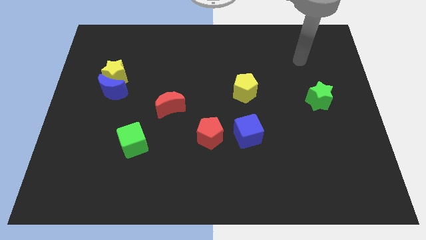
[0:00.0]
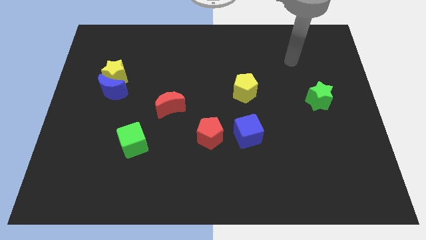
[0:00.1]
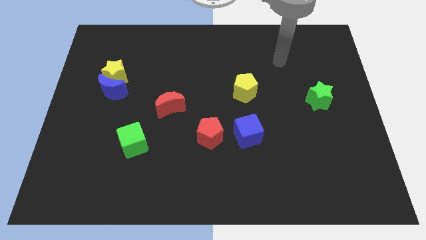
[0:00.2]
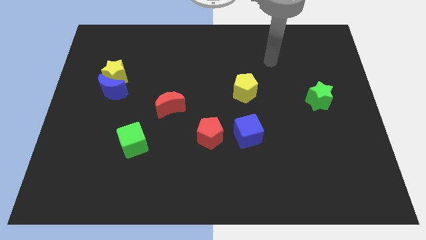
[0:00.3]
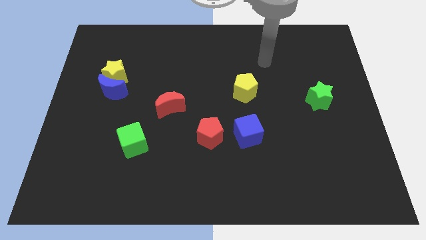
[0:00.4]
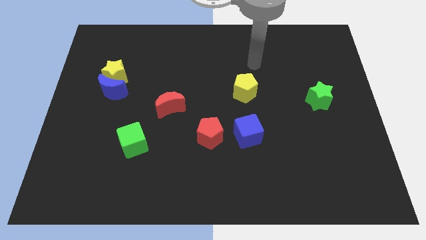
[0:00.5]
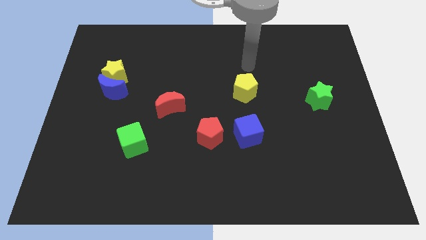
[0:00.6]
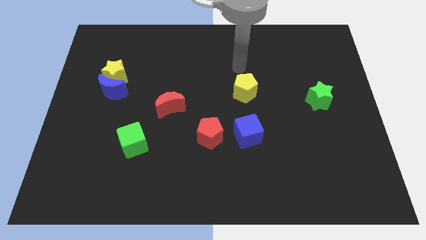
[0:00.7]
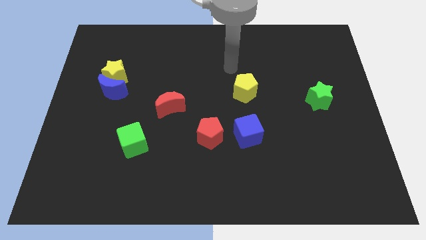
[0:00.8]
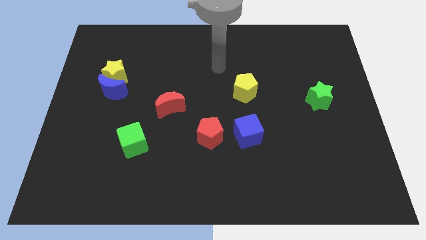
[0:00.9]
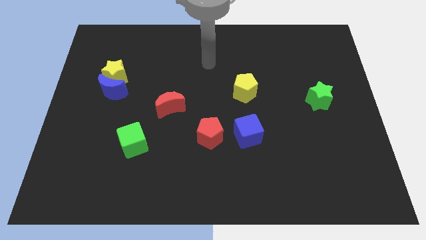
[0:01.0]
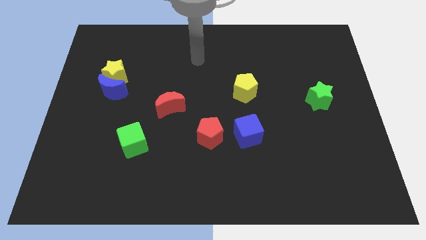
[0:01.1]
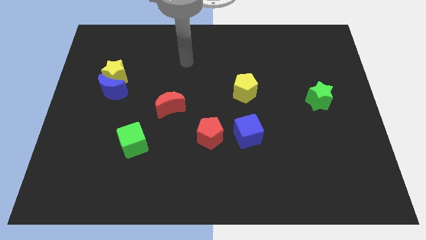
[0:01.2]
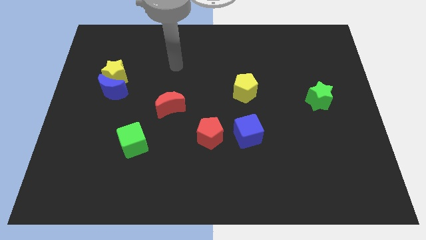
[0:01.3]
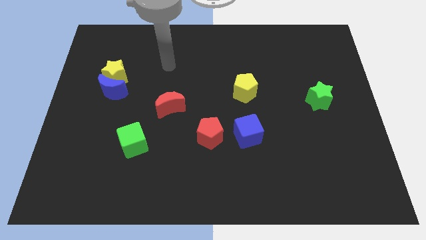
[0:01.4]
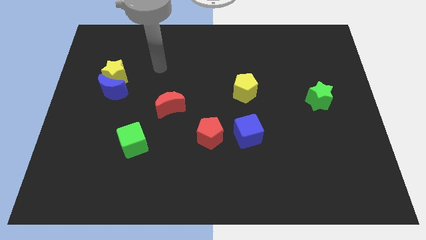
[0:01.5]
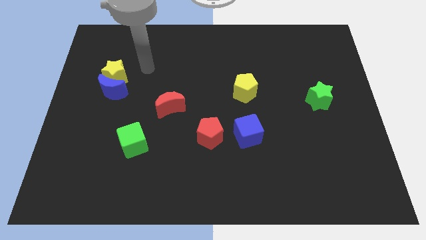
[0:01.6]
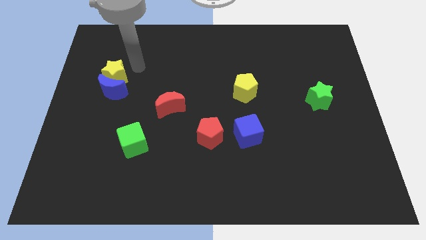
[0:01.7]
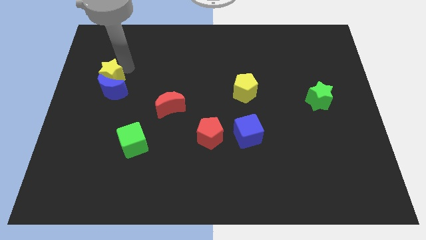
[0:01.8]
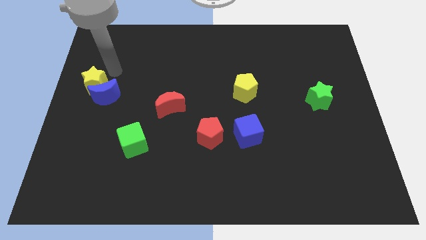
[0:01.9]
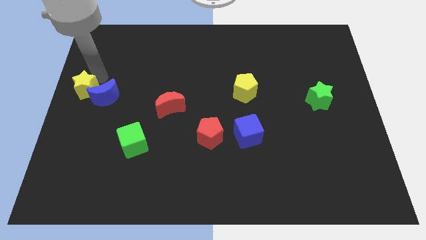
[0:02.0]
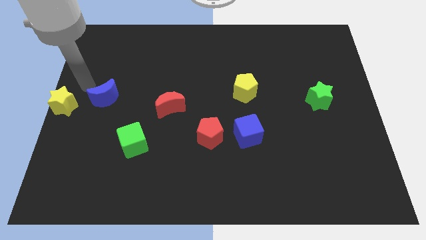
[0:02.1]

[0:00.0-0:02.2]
pull the blue moon apart from the yellow star

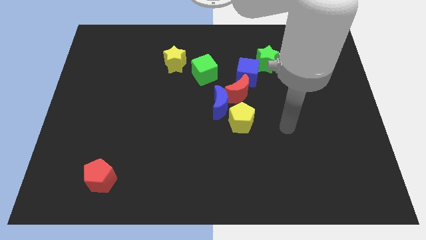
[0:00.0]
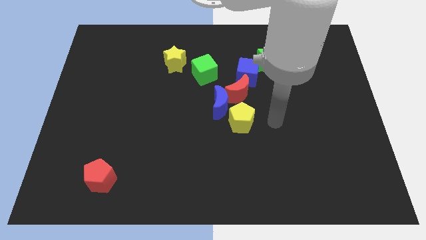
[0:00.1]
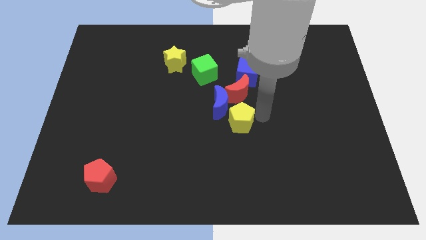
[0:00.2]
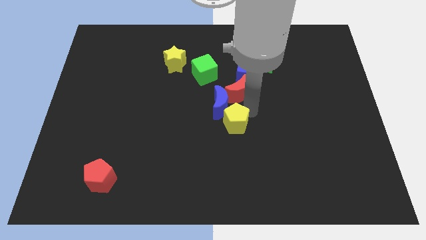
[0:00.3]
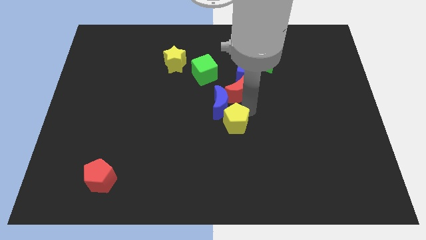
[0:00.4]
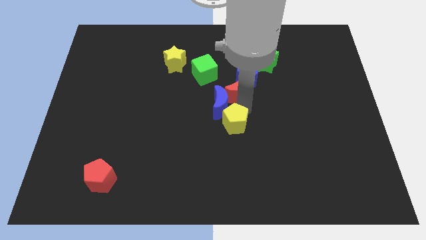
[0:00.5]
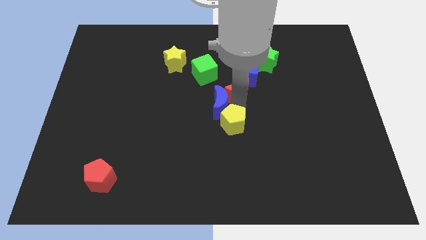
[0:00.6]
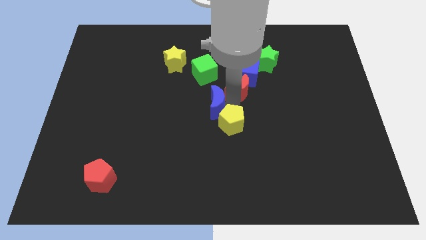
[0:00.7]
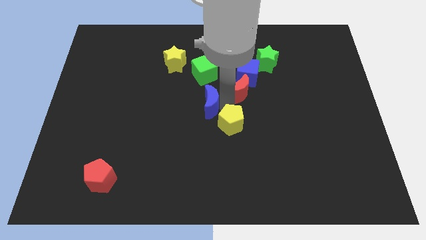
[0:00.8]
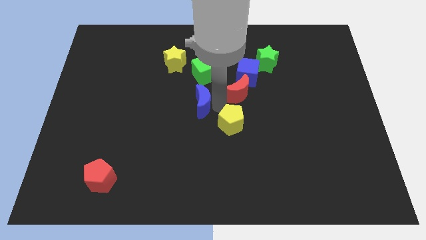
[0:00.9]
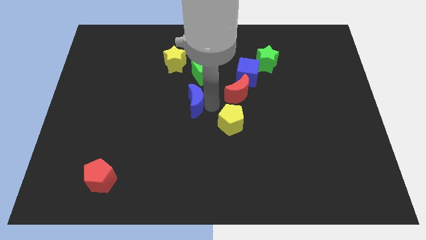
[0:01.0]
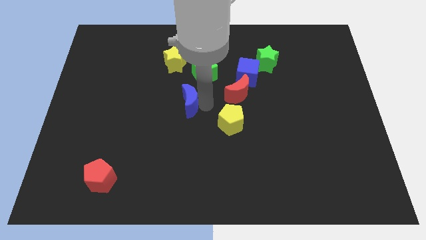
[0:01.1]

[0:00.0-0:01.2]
move the blue moon away from the red moon and yellow pentagon

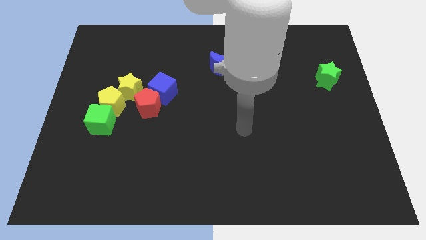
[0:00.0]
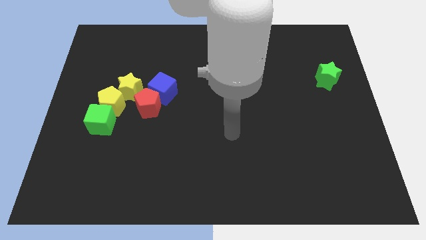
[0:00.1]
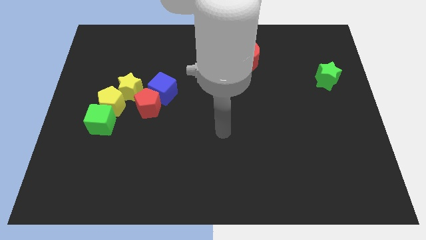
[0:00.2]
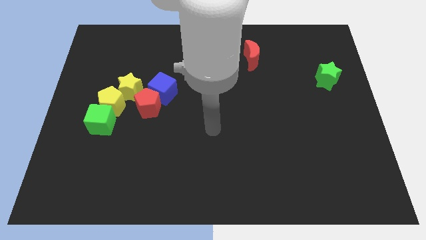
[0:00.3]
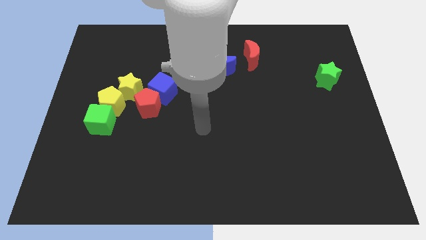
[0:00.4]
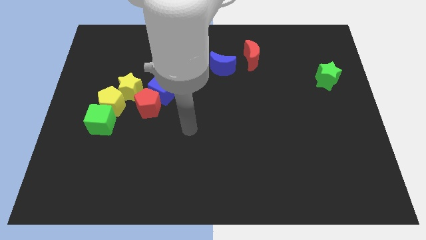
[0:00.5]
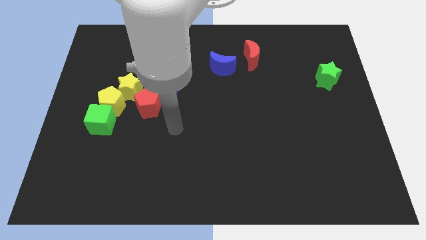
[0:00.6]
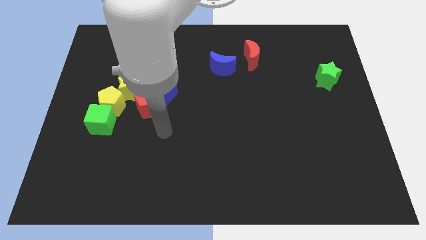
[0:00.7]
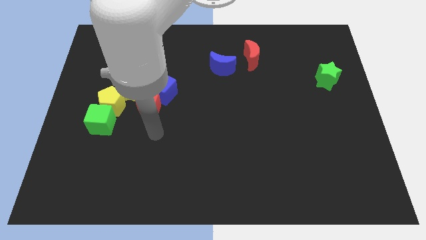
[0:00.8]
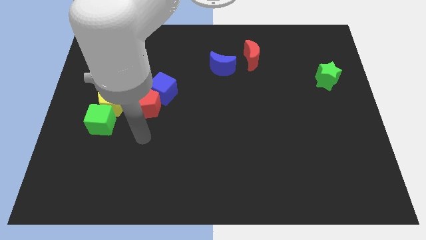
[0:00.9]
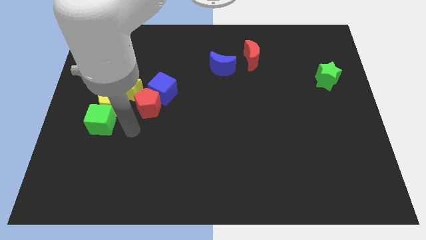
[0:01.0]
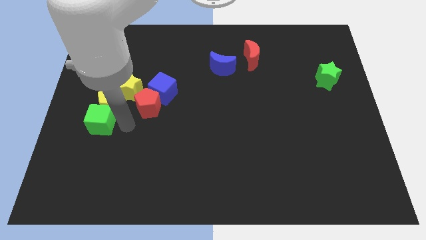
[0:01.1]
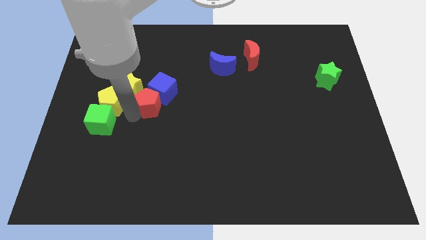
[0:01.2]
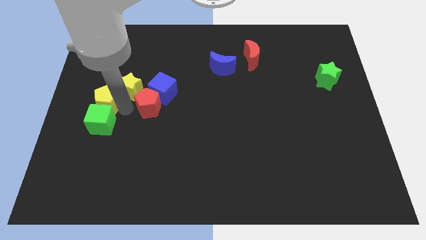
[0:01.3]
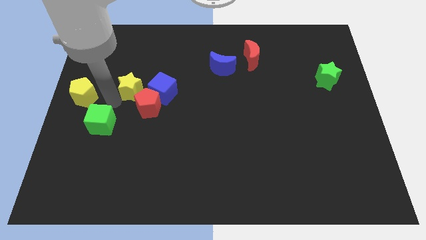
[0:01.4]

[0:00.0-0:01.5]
separate the green cube from the yellow pentagon

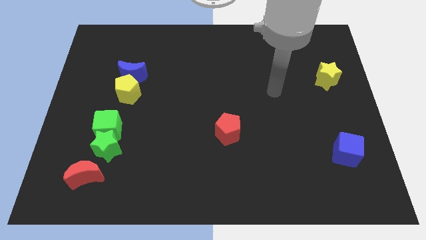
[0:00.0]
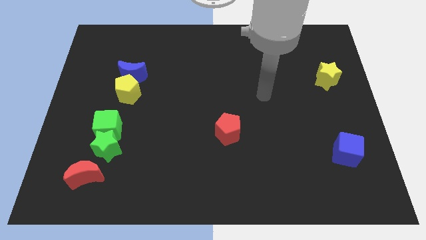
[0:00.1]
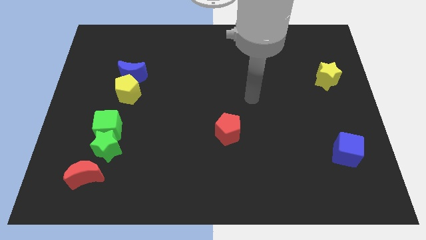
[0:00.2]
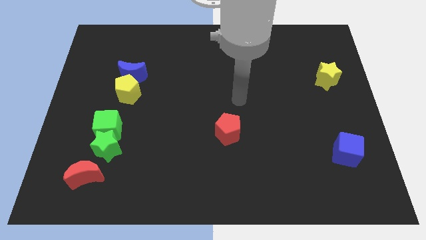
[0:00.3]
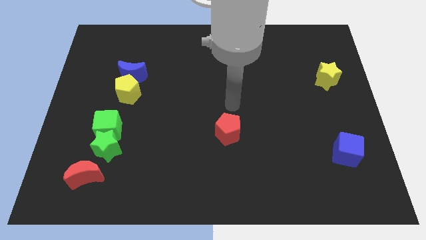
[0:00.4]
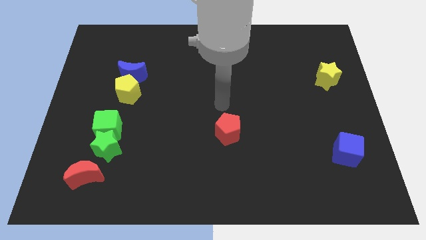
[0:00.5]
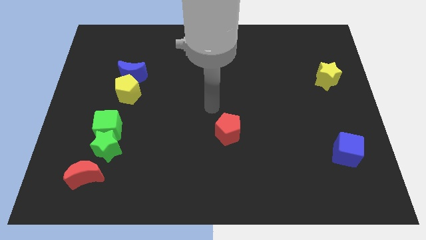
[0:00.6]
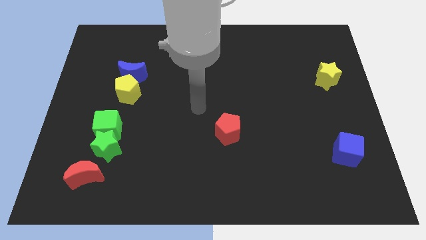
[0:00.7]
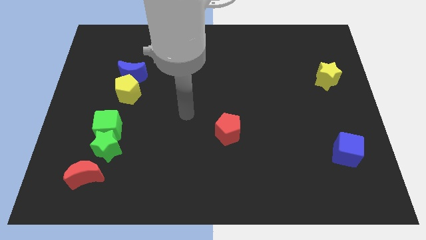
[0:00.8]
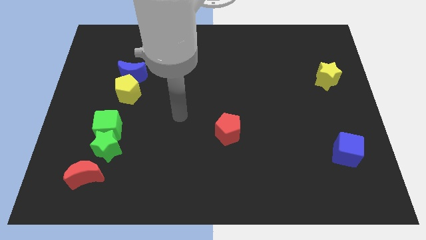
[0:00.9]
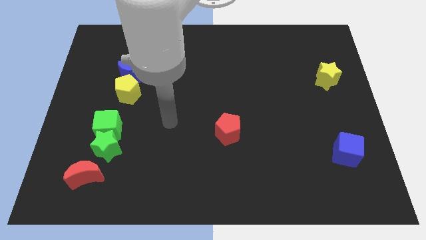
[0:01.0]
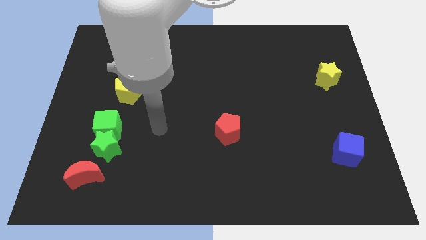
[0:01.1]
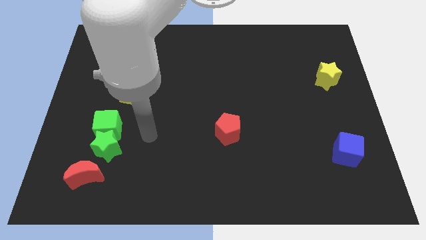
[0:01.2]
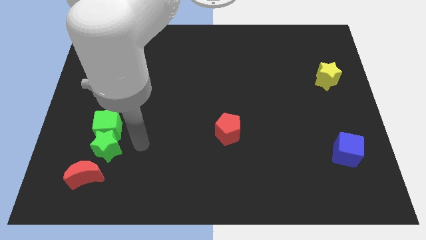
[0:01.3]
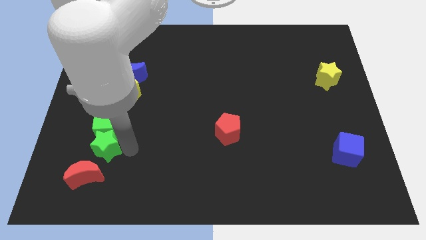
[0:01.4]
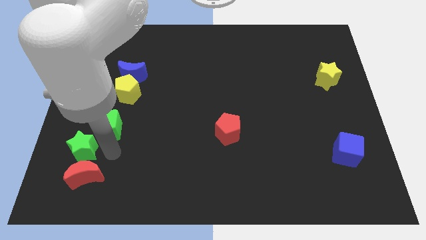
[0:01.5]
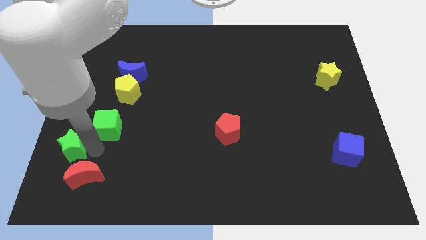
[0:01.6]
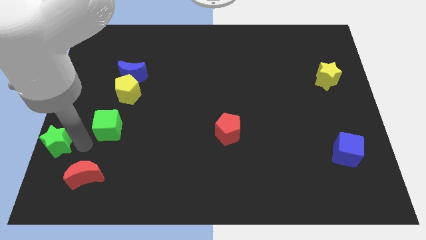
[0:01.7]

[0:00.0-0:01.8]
separate the green cube from the green star

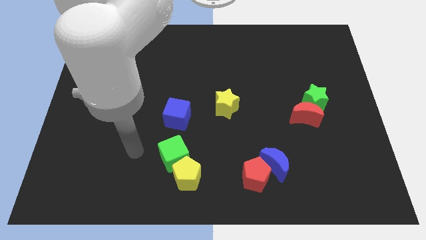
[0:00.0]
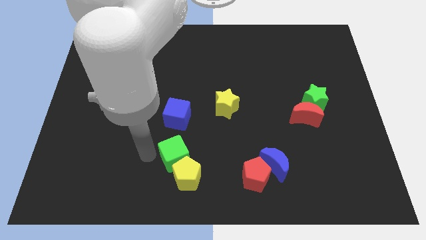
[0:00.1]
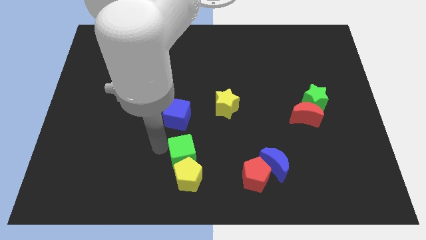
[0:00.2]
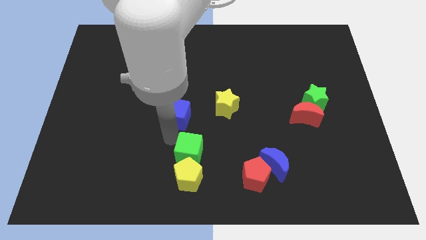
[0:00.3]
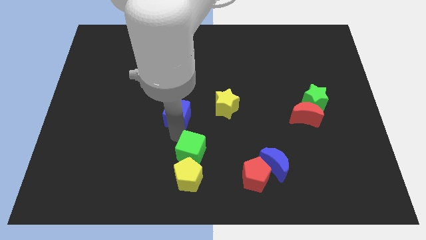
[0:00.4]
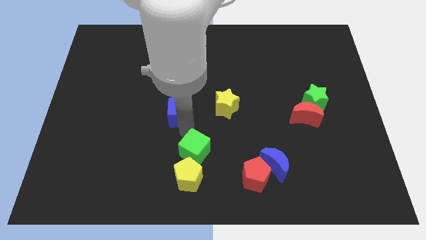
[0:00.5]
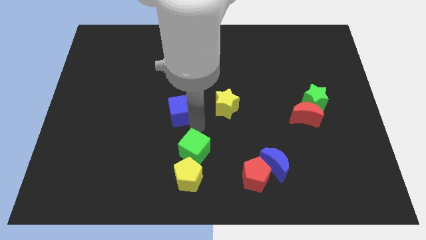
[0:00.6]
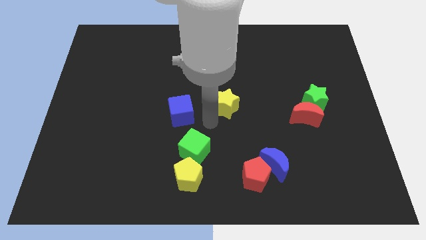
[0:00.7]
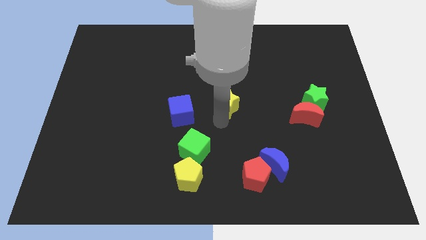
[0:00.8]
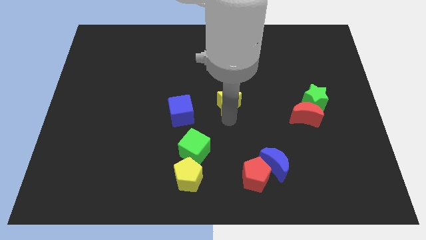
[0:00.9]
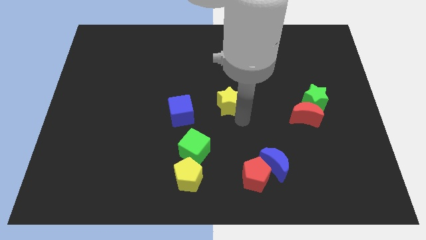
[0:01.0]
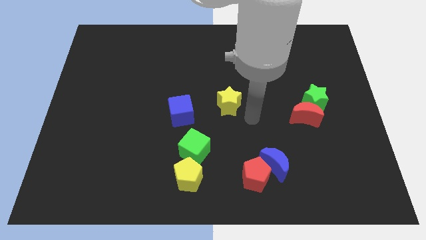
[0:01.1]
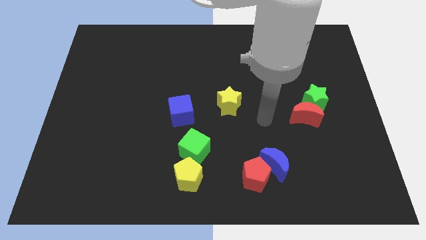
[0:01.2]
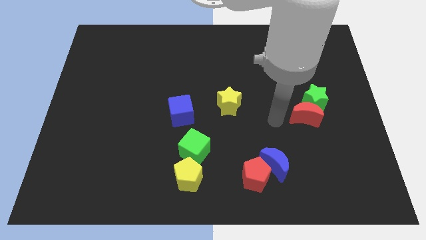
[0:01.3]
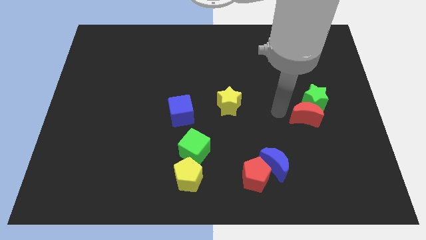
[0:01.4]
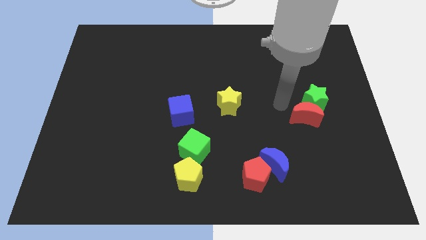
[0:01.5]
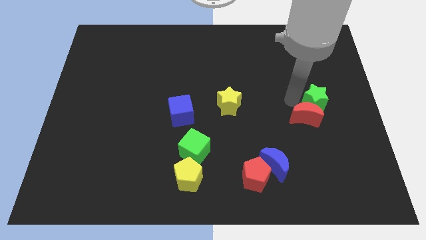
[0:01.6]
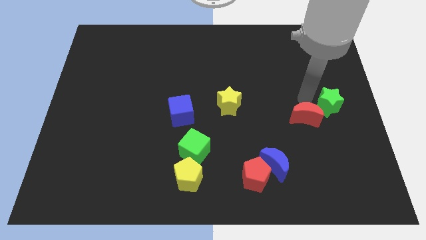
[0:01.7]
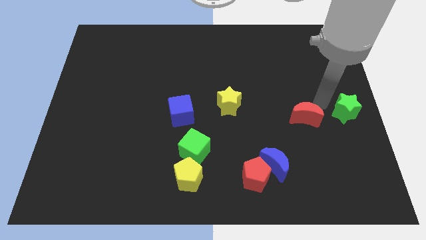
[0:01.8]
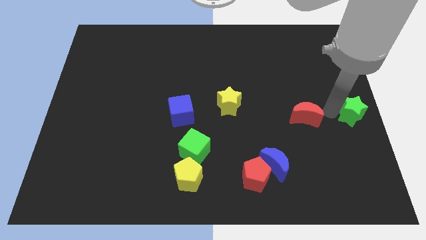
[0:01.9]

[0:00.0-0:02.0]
separate the red moon from the green star

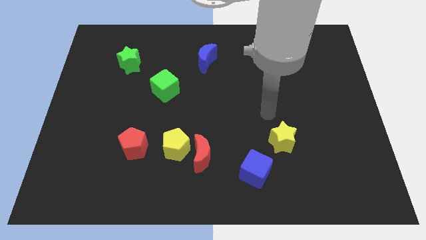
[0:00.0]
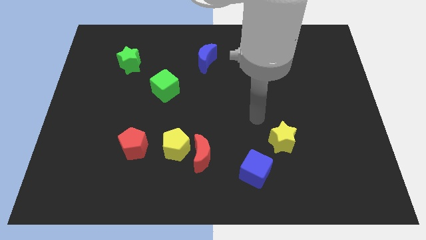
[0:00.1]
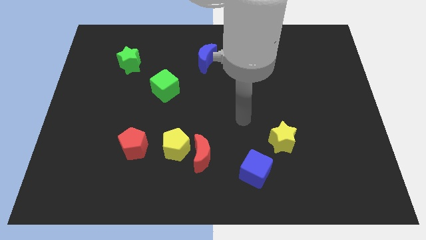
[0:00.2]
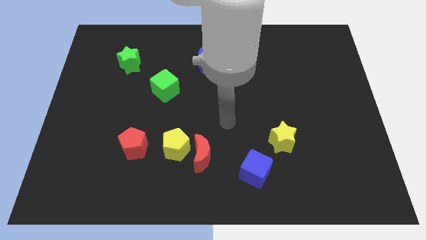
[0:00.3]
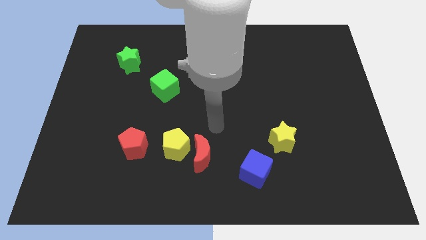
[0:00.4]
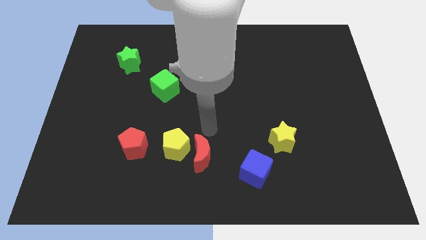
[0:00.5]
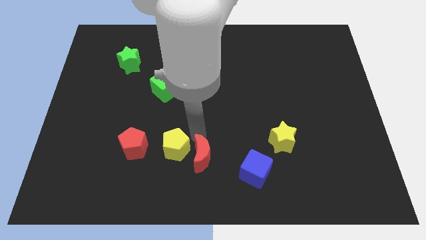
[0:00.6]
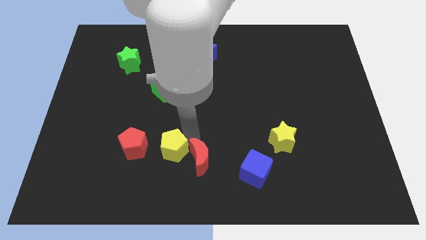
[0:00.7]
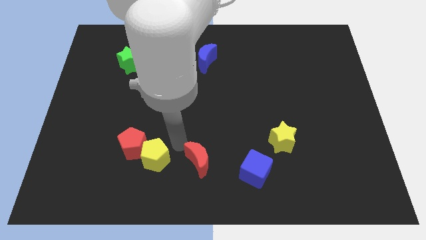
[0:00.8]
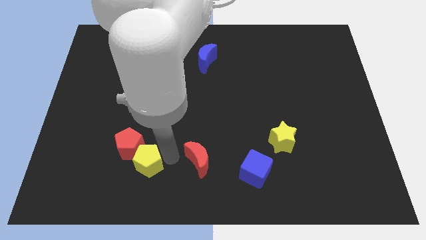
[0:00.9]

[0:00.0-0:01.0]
move the red moon away from the yellow pentagon
